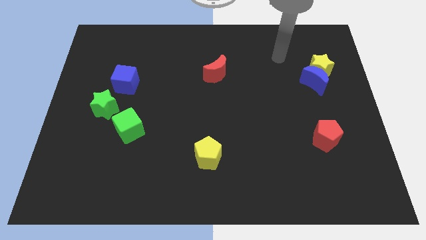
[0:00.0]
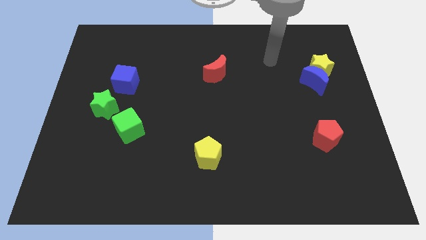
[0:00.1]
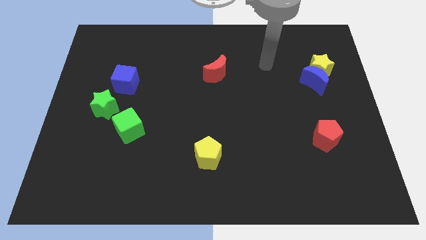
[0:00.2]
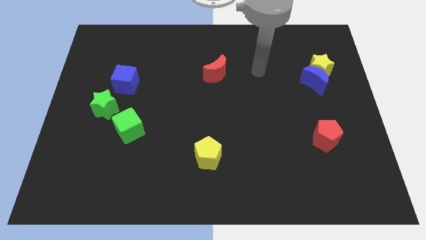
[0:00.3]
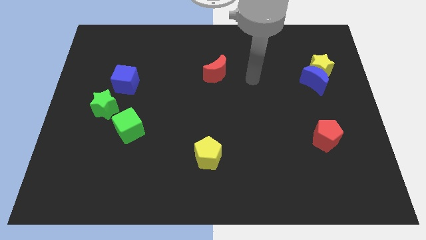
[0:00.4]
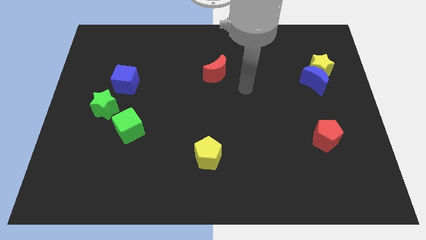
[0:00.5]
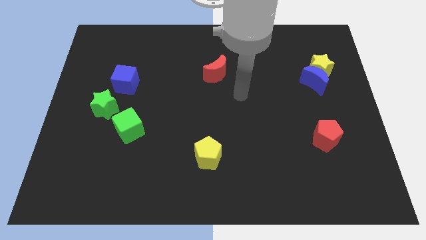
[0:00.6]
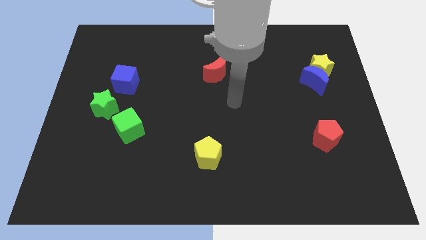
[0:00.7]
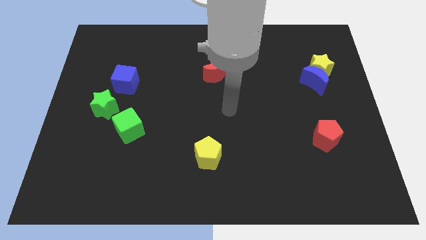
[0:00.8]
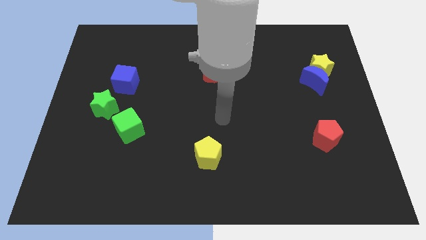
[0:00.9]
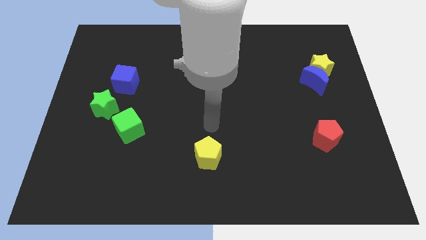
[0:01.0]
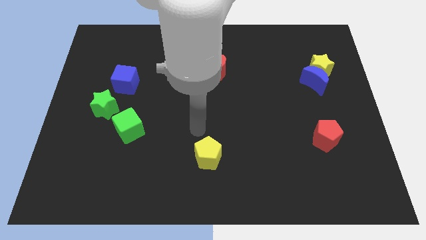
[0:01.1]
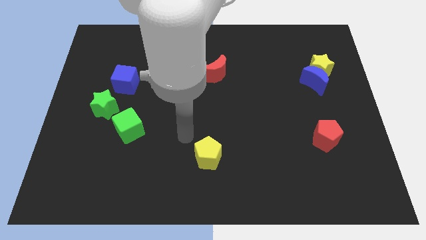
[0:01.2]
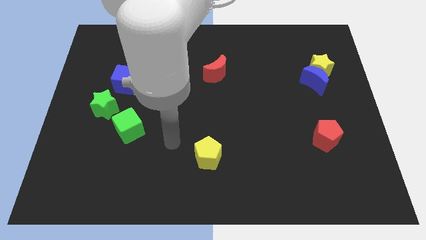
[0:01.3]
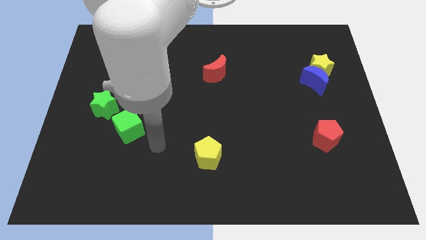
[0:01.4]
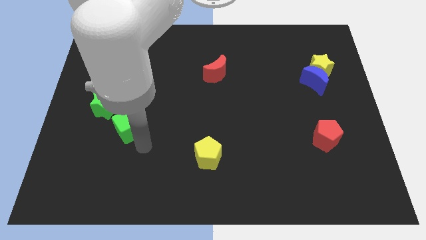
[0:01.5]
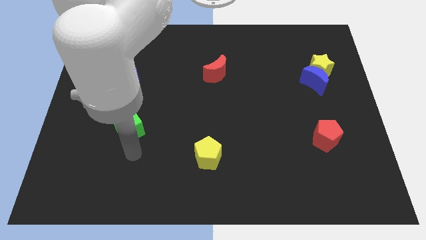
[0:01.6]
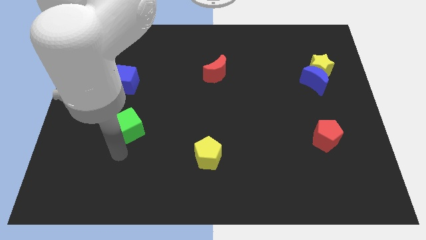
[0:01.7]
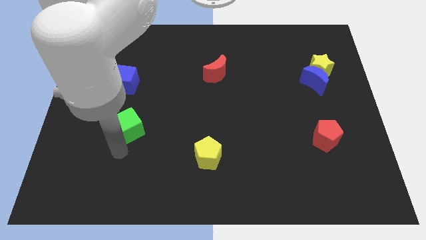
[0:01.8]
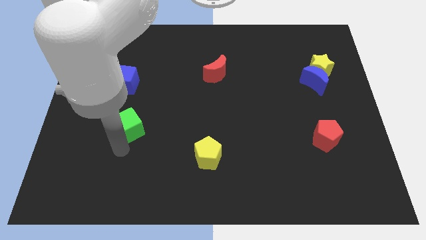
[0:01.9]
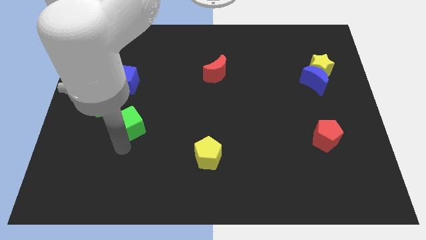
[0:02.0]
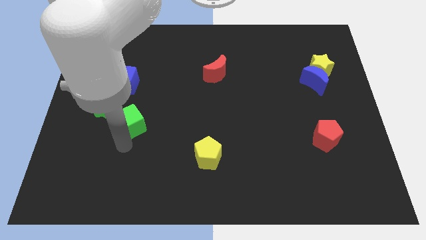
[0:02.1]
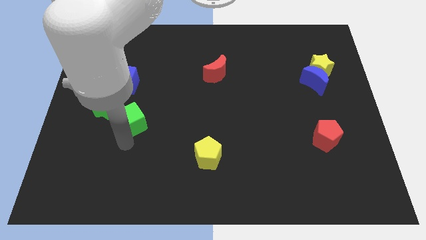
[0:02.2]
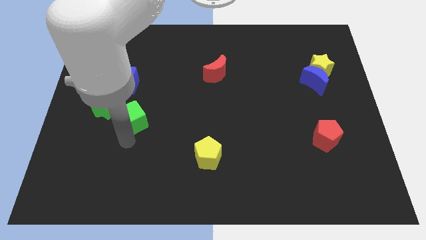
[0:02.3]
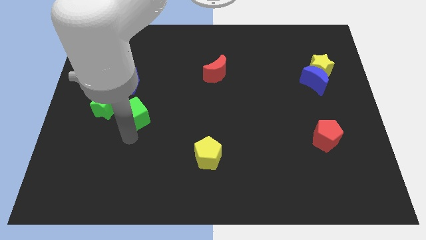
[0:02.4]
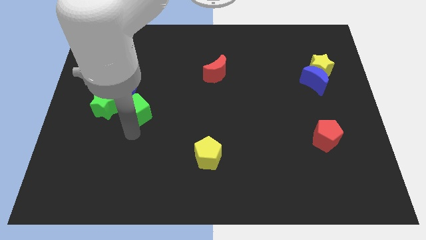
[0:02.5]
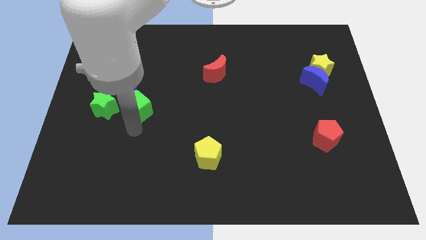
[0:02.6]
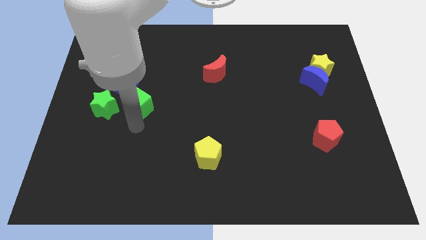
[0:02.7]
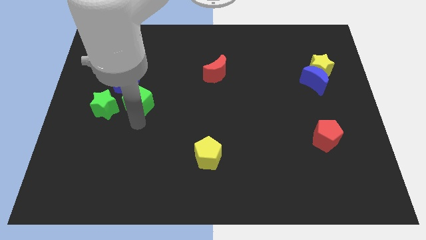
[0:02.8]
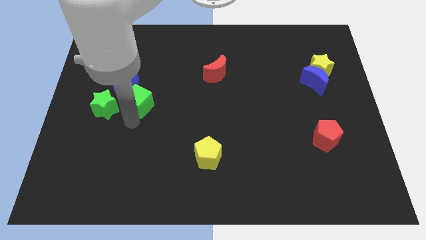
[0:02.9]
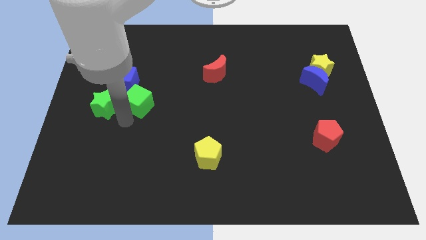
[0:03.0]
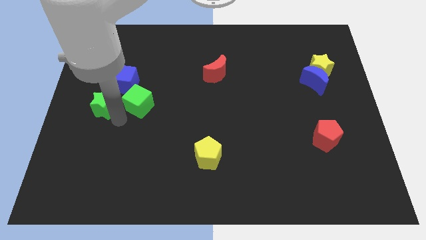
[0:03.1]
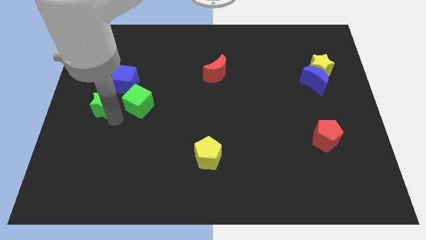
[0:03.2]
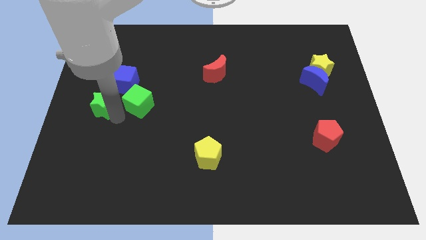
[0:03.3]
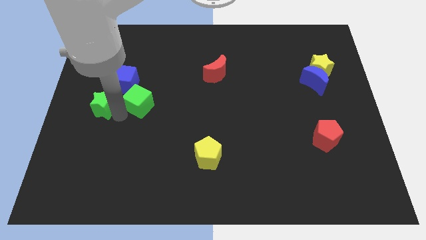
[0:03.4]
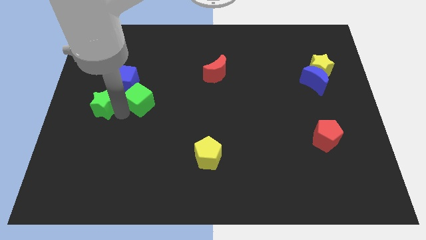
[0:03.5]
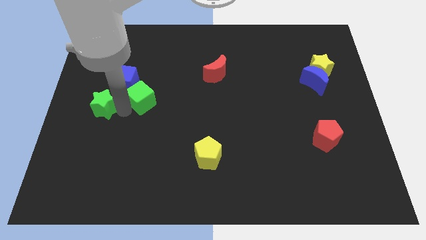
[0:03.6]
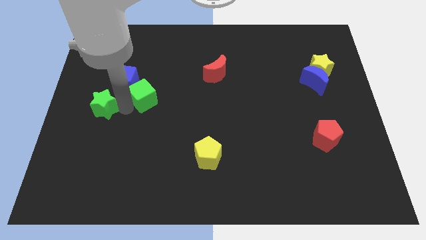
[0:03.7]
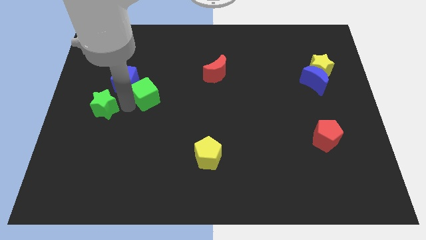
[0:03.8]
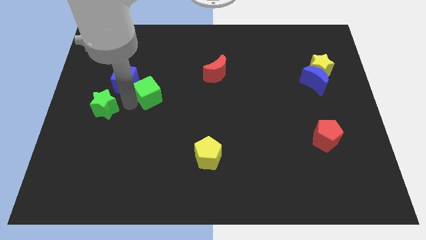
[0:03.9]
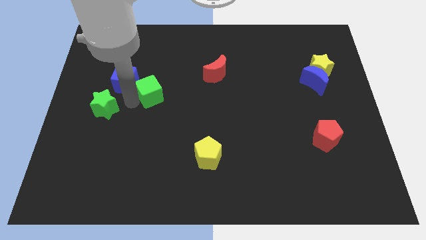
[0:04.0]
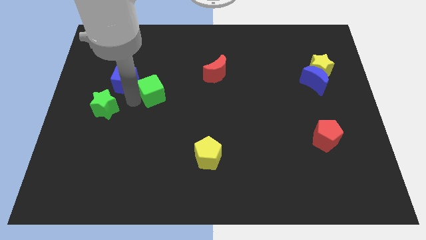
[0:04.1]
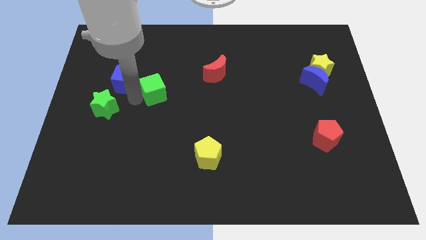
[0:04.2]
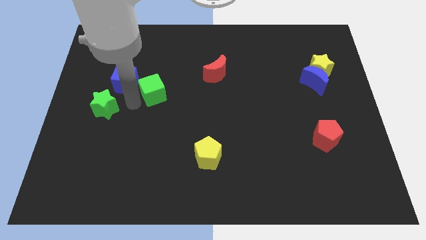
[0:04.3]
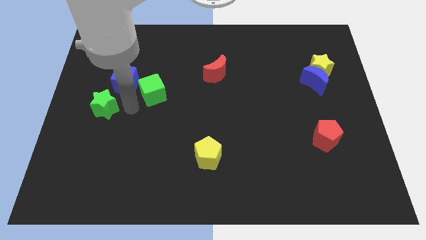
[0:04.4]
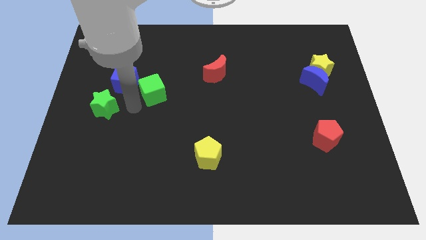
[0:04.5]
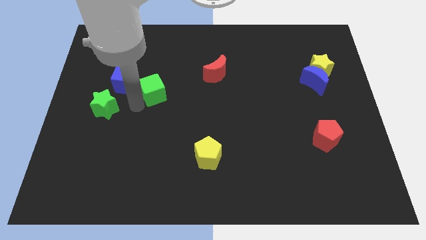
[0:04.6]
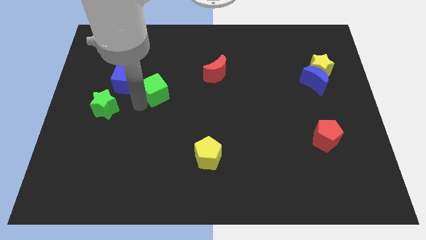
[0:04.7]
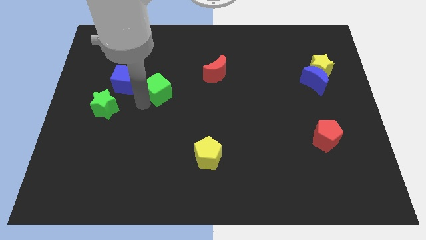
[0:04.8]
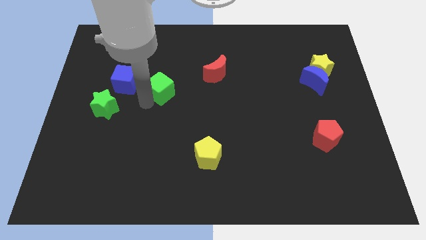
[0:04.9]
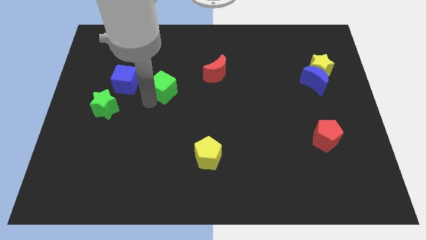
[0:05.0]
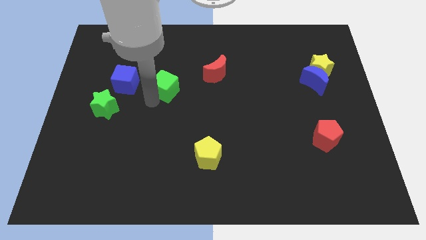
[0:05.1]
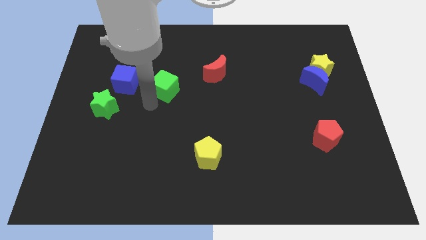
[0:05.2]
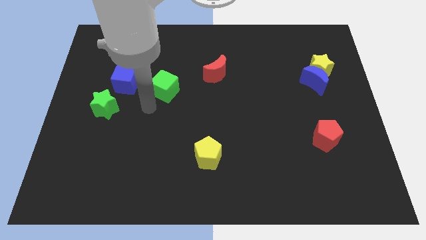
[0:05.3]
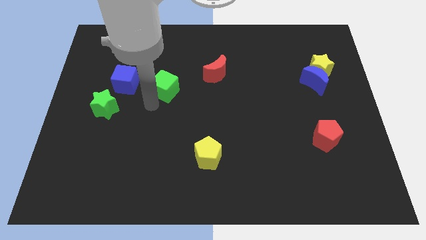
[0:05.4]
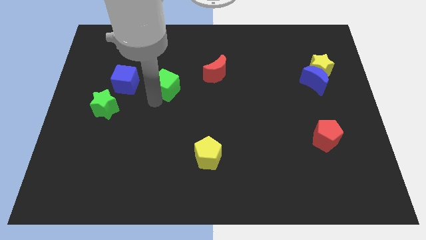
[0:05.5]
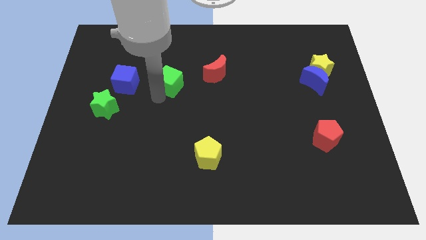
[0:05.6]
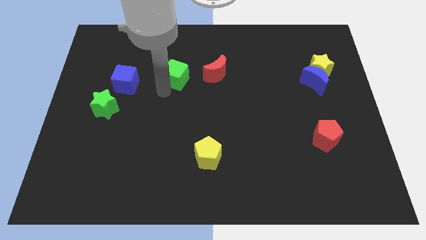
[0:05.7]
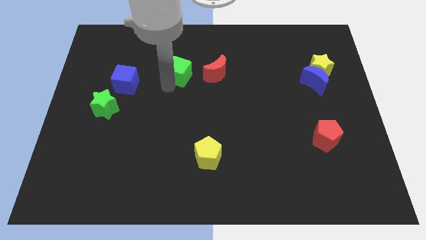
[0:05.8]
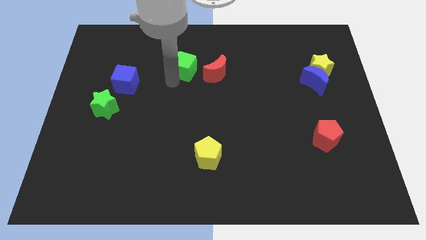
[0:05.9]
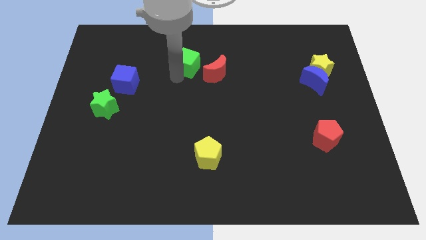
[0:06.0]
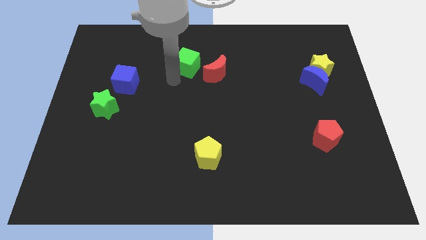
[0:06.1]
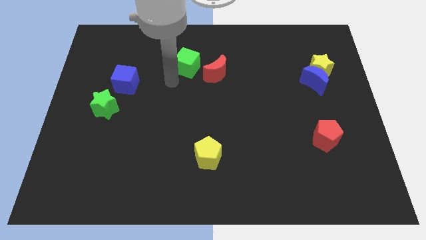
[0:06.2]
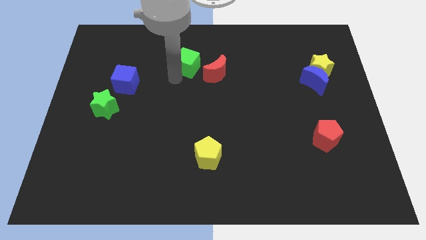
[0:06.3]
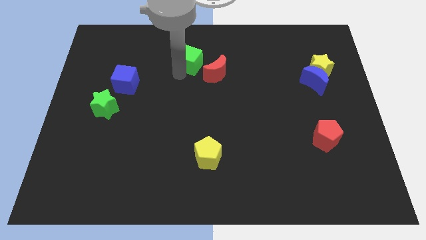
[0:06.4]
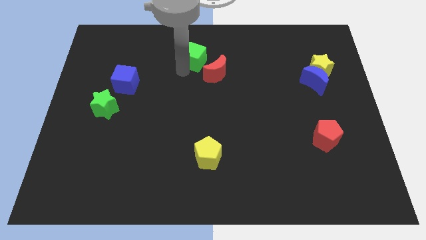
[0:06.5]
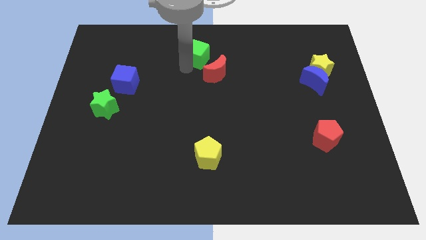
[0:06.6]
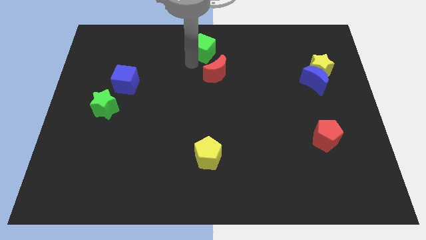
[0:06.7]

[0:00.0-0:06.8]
move the green cube to the top side

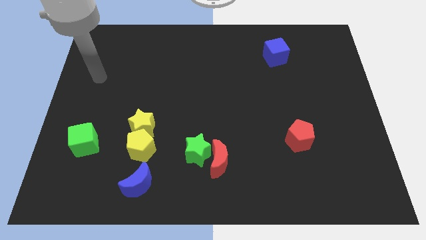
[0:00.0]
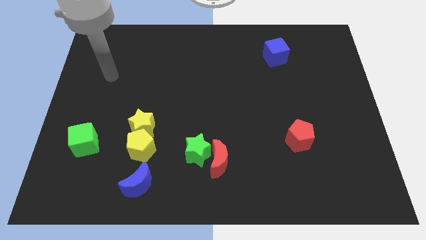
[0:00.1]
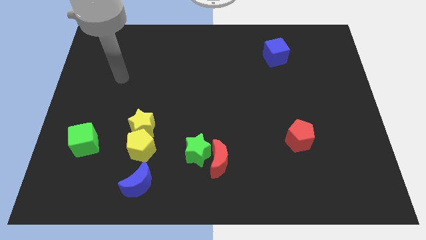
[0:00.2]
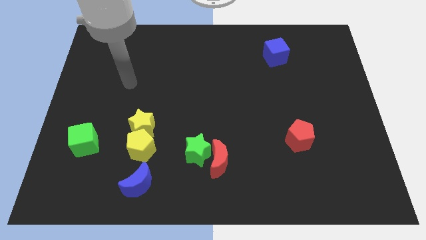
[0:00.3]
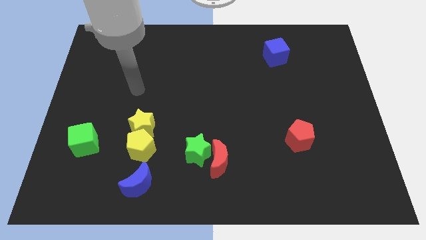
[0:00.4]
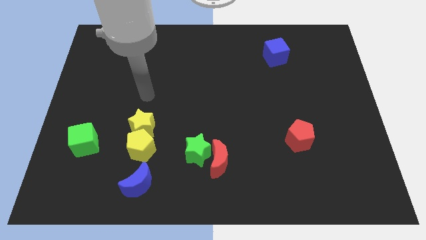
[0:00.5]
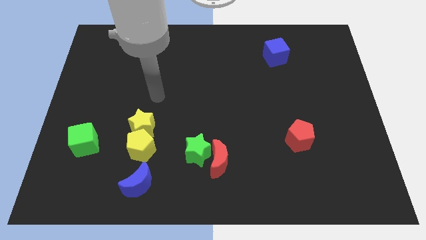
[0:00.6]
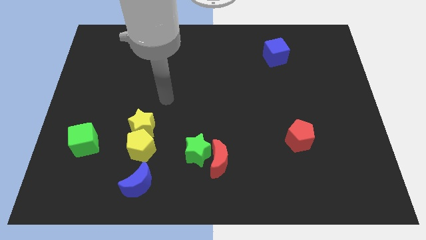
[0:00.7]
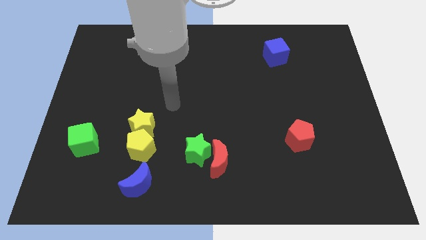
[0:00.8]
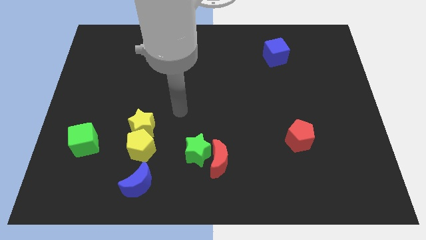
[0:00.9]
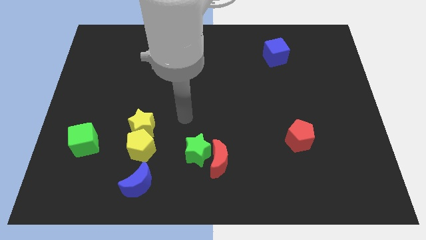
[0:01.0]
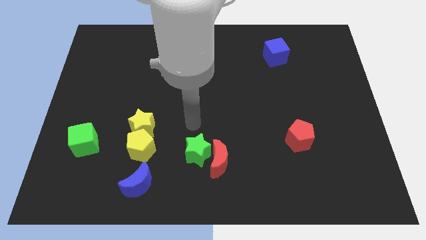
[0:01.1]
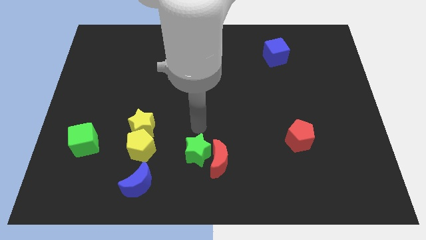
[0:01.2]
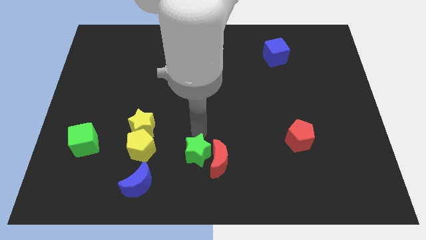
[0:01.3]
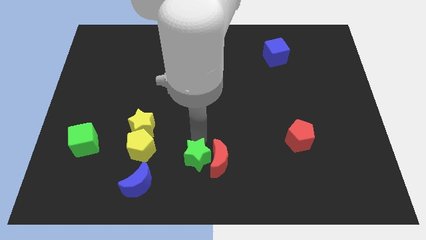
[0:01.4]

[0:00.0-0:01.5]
move the green star to the bottom
